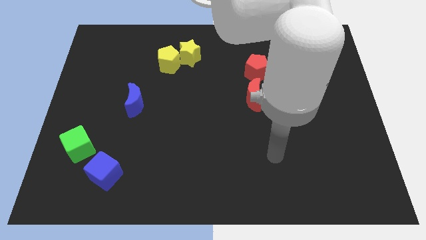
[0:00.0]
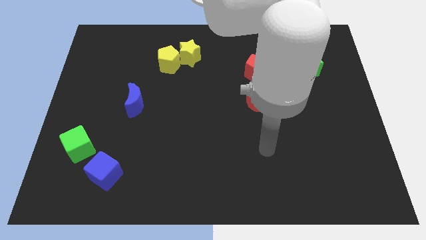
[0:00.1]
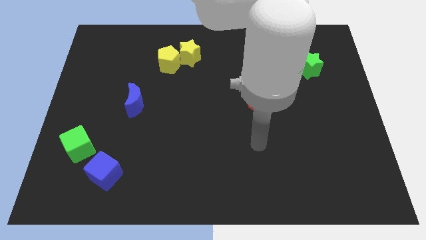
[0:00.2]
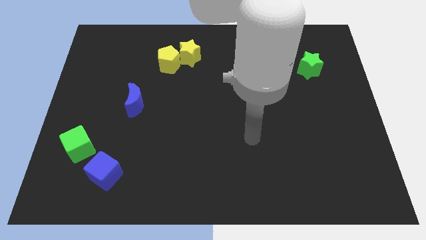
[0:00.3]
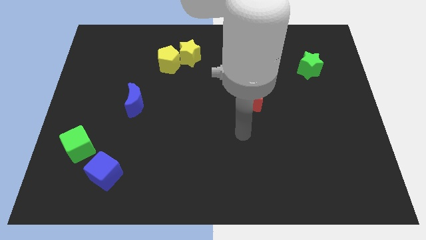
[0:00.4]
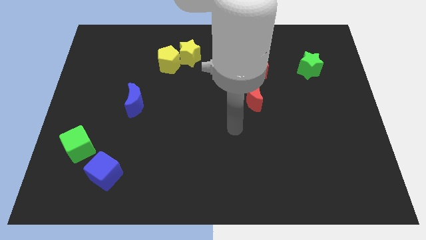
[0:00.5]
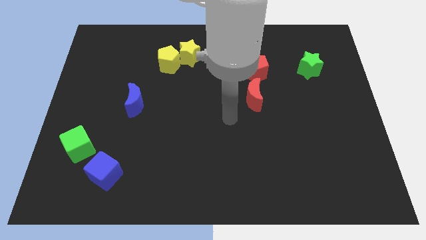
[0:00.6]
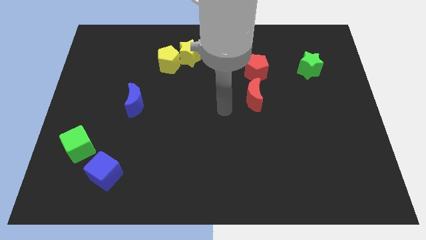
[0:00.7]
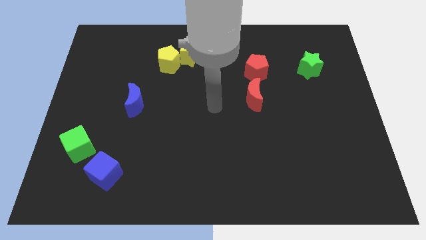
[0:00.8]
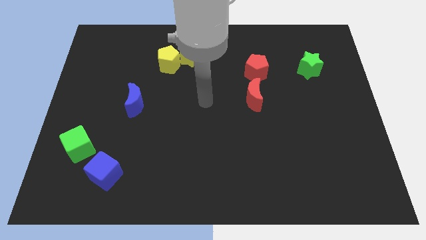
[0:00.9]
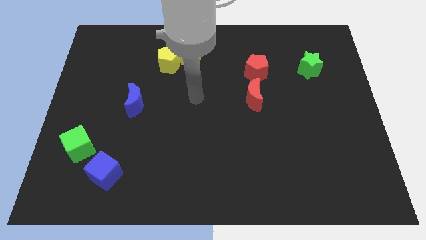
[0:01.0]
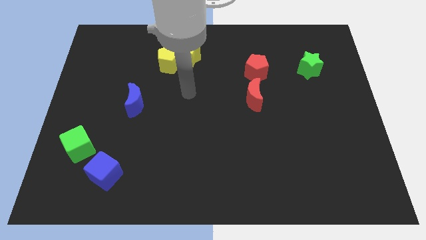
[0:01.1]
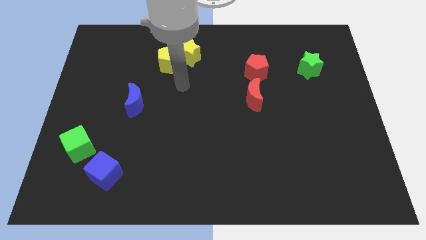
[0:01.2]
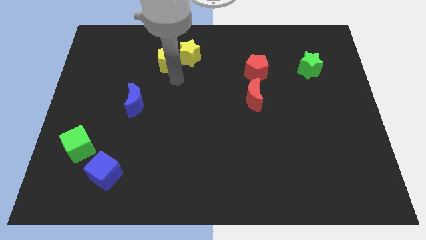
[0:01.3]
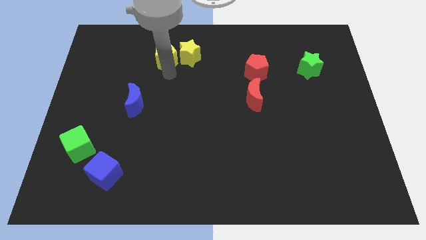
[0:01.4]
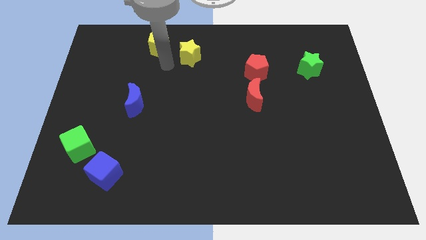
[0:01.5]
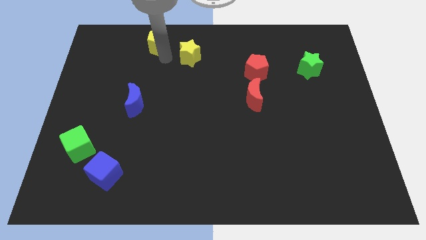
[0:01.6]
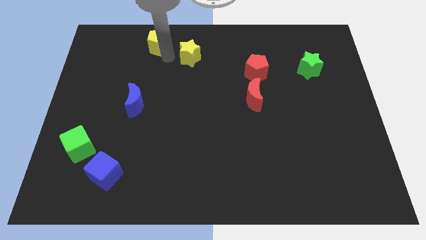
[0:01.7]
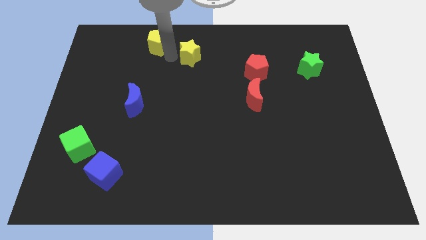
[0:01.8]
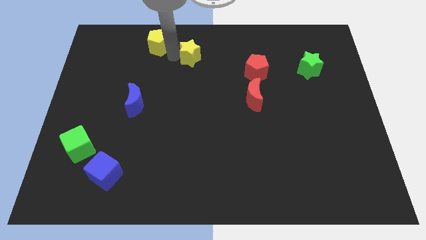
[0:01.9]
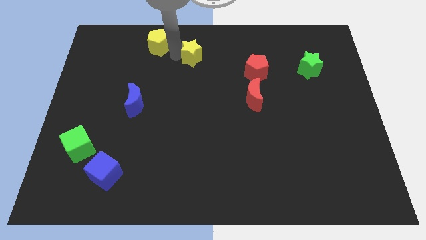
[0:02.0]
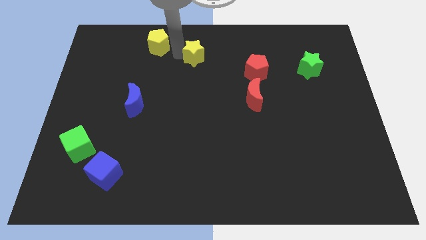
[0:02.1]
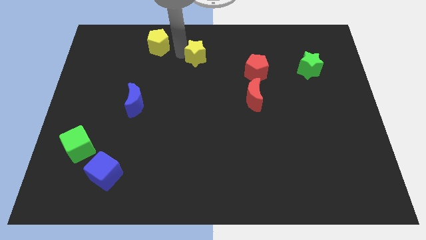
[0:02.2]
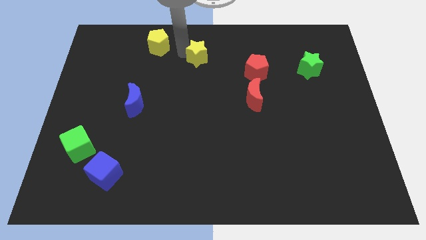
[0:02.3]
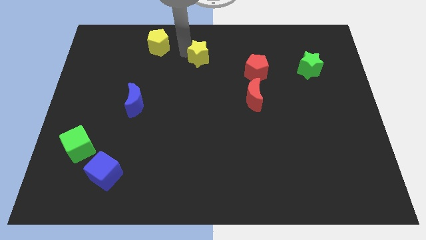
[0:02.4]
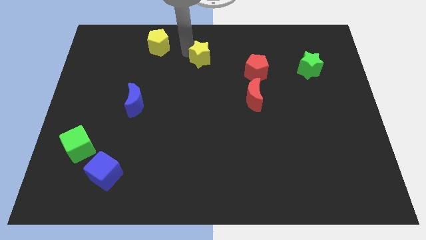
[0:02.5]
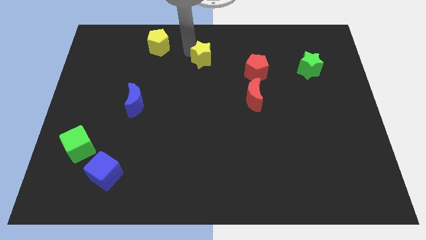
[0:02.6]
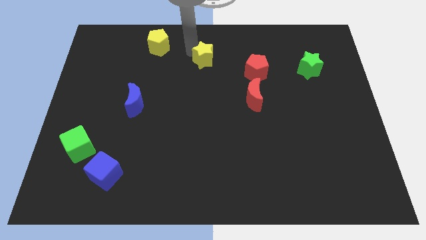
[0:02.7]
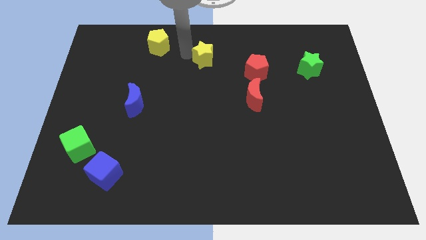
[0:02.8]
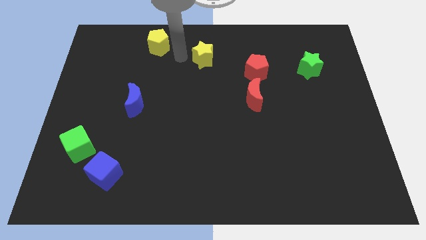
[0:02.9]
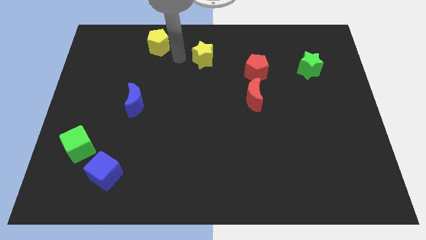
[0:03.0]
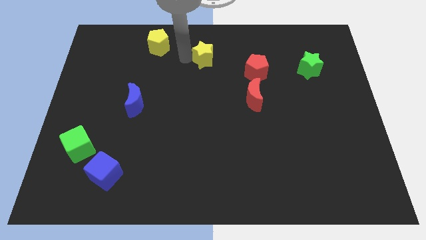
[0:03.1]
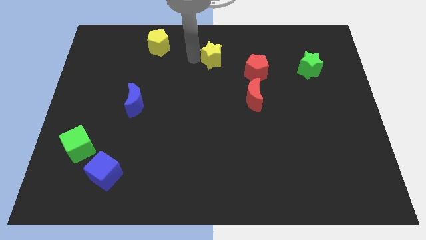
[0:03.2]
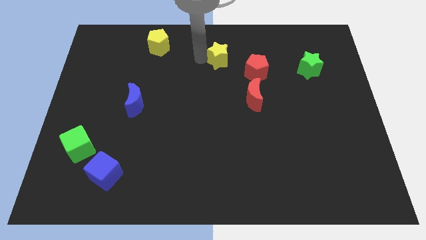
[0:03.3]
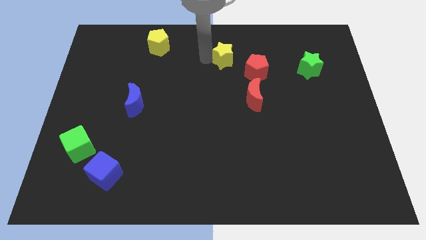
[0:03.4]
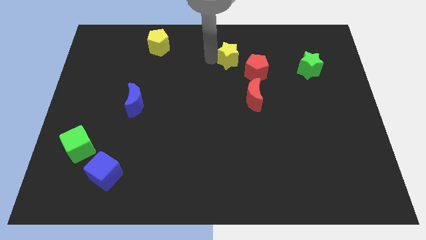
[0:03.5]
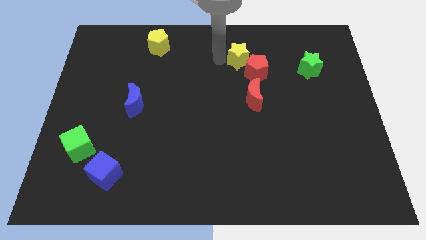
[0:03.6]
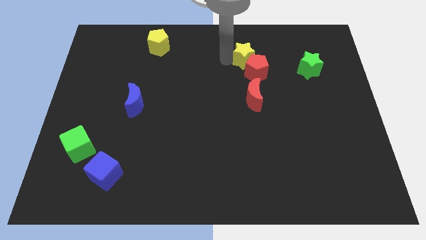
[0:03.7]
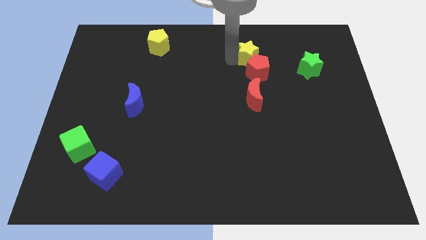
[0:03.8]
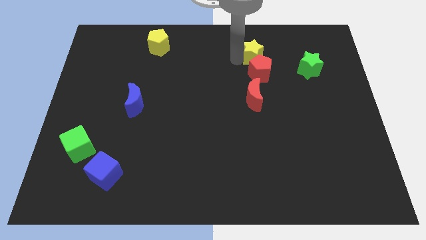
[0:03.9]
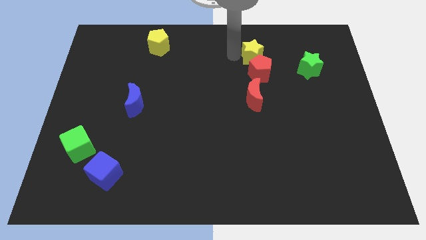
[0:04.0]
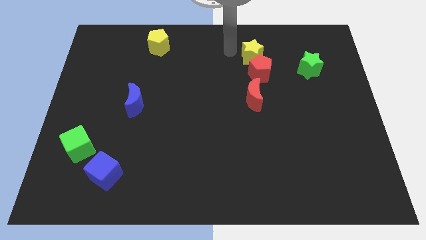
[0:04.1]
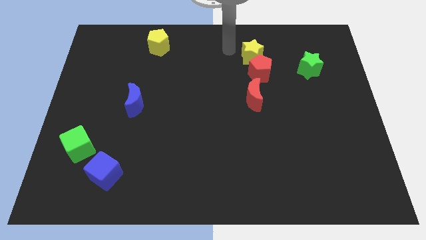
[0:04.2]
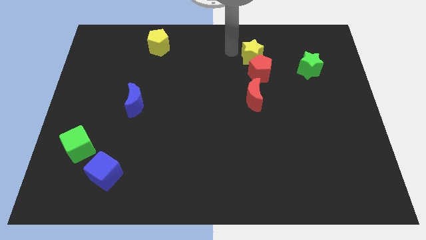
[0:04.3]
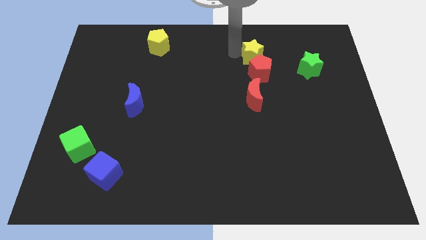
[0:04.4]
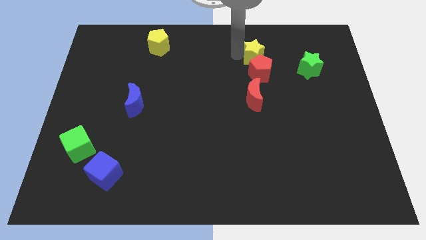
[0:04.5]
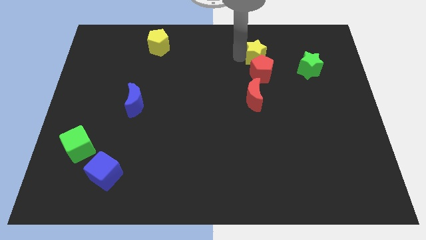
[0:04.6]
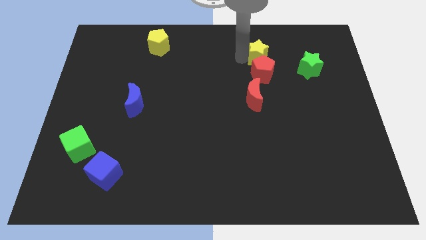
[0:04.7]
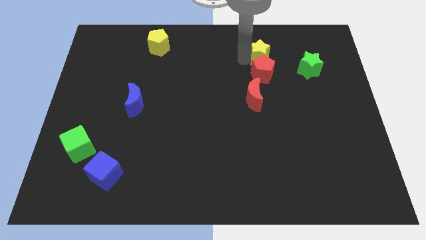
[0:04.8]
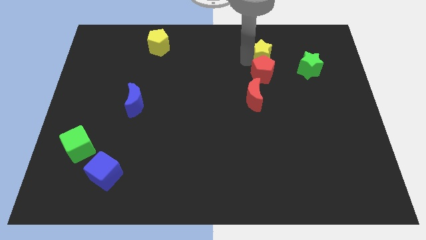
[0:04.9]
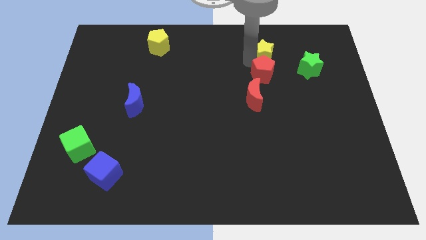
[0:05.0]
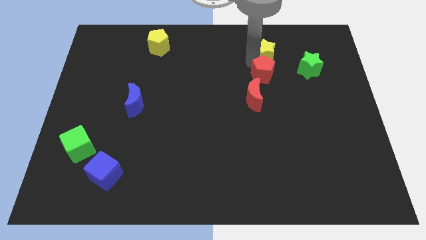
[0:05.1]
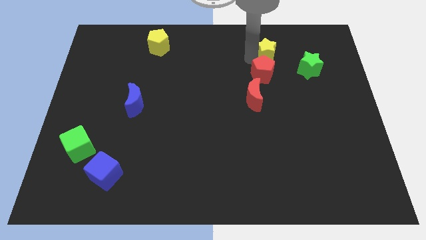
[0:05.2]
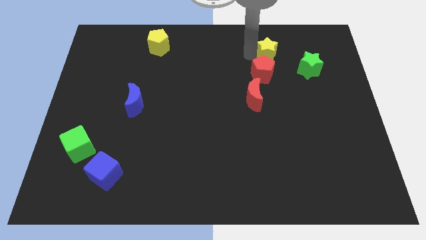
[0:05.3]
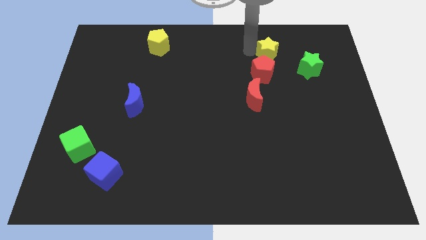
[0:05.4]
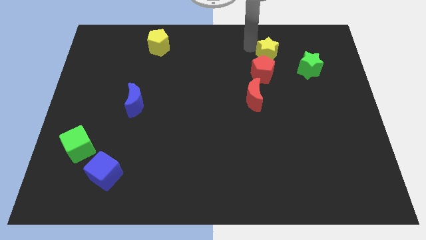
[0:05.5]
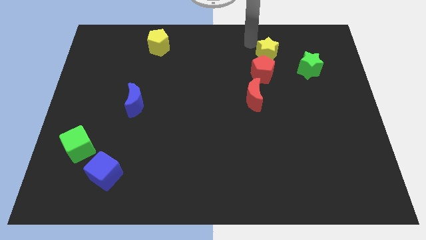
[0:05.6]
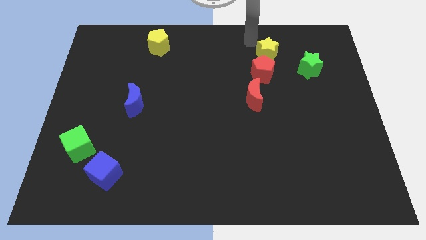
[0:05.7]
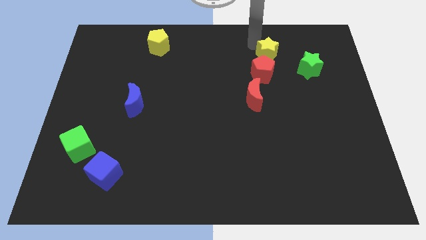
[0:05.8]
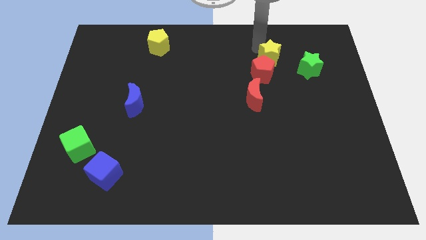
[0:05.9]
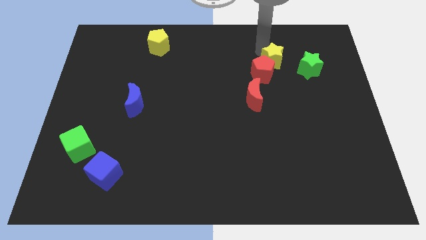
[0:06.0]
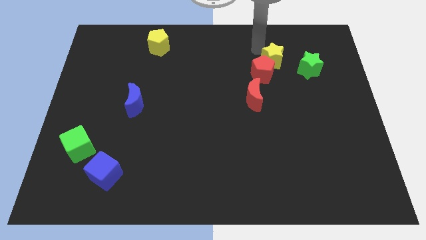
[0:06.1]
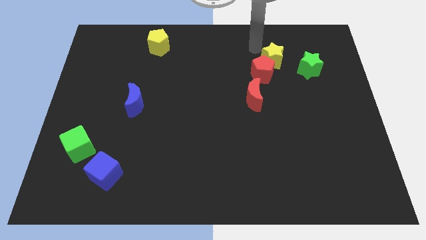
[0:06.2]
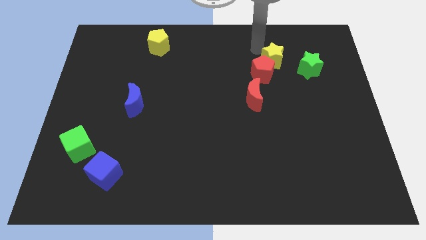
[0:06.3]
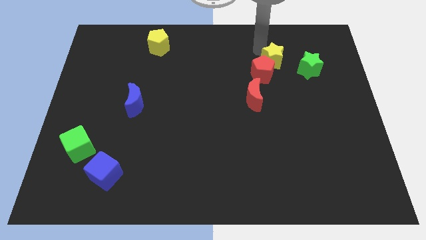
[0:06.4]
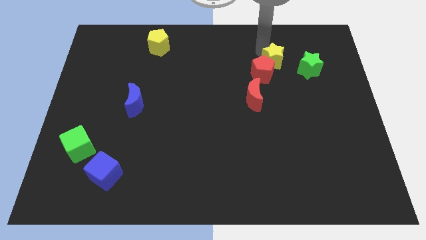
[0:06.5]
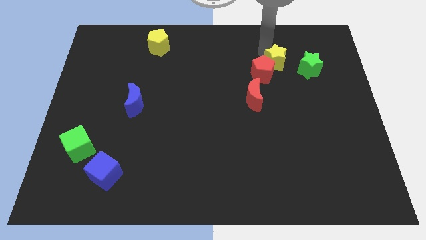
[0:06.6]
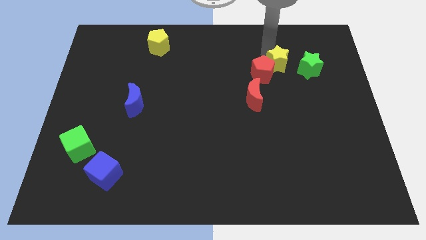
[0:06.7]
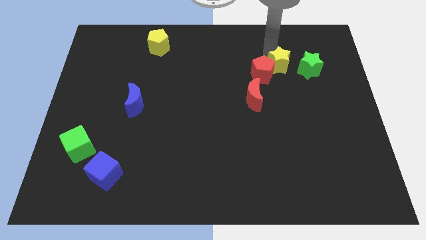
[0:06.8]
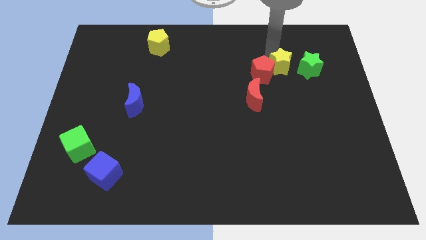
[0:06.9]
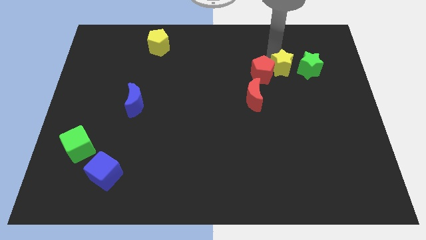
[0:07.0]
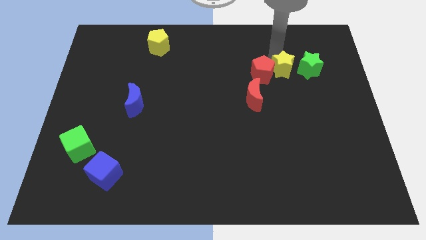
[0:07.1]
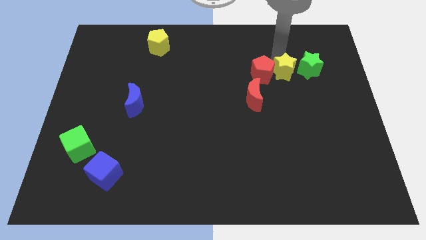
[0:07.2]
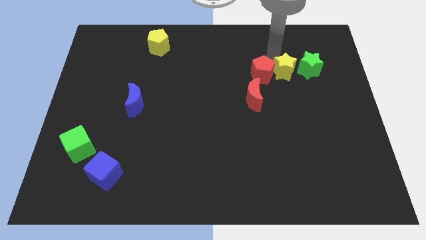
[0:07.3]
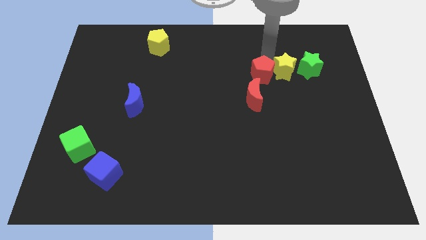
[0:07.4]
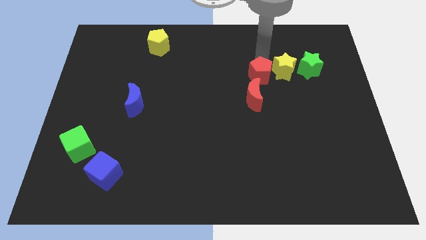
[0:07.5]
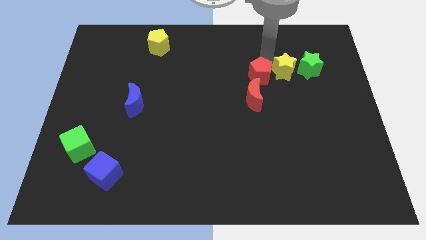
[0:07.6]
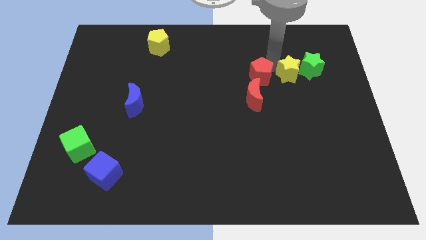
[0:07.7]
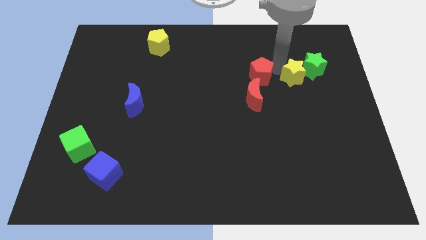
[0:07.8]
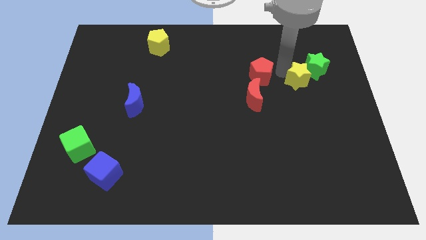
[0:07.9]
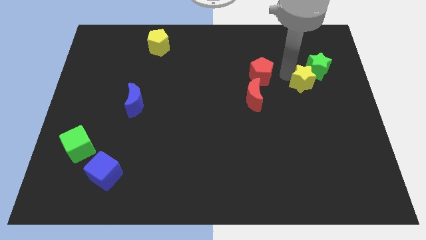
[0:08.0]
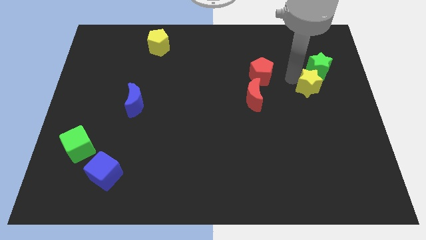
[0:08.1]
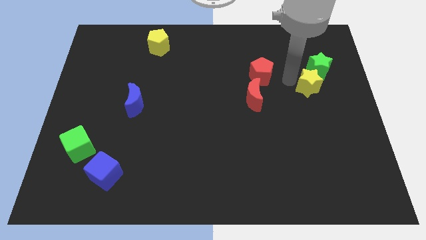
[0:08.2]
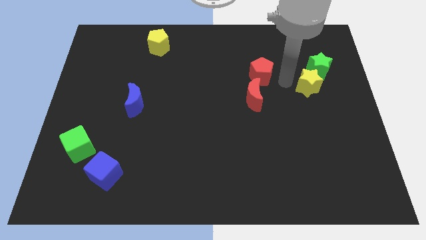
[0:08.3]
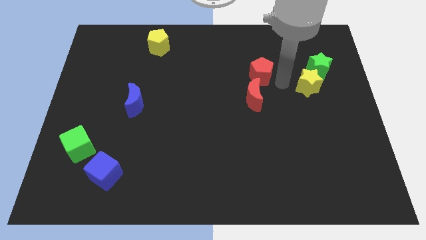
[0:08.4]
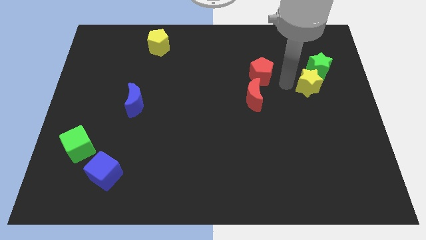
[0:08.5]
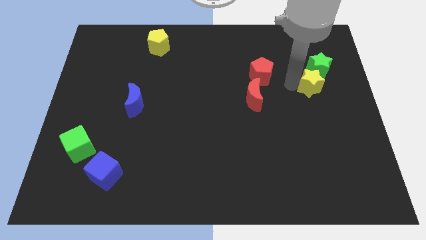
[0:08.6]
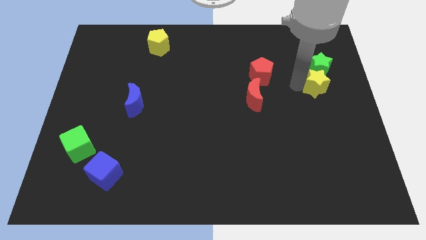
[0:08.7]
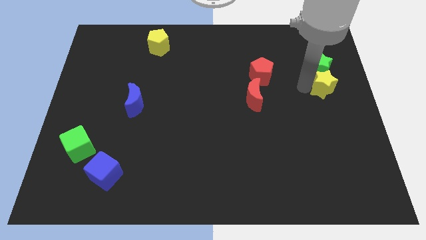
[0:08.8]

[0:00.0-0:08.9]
put the yellow star to the right side
